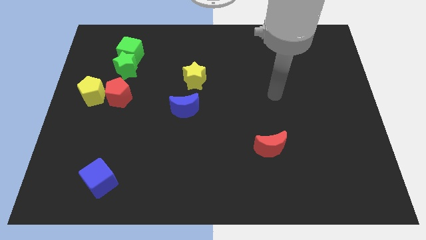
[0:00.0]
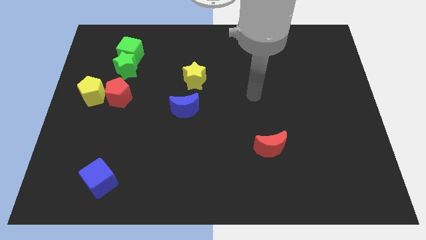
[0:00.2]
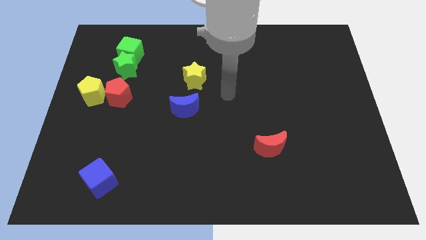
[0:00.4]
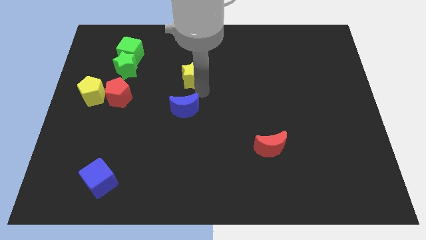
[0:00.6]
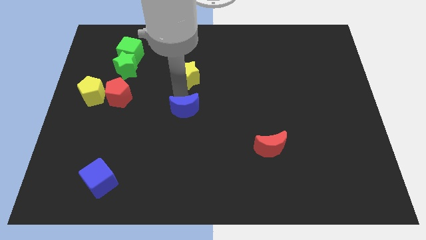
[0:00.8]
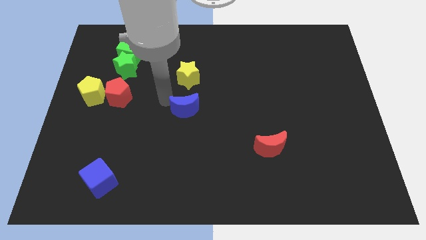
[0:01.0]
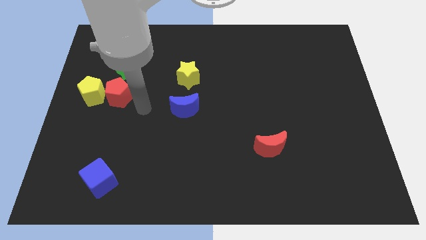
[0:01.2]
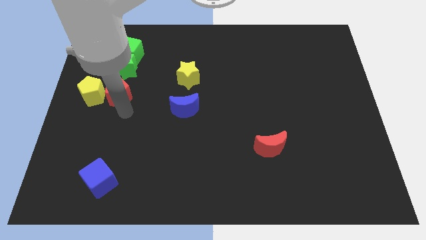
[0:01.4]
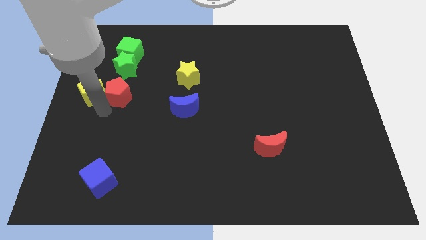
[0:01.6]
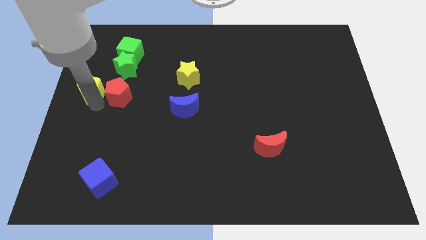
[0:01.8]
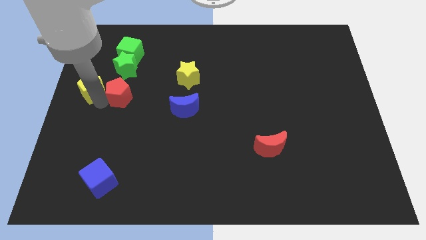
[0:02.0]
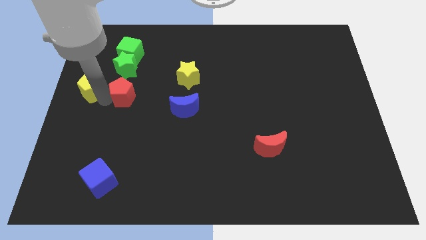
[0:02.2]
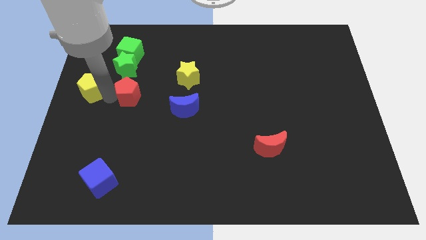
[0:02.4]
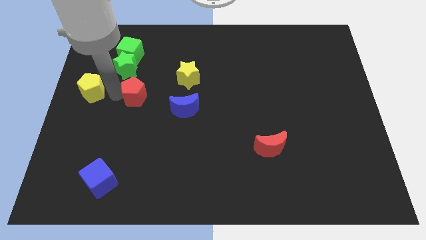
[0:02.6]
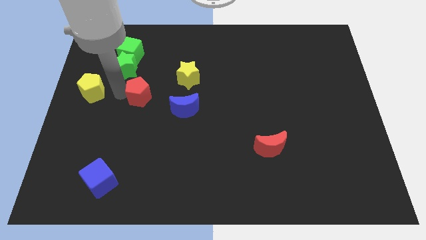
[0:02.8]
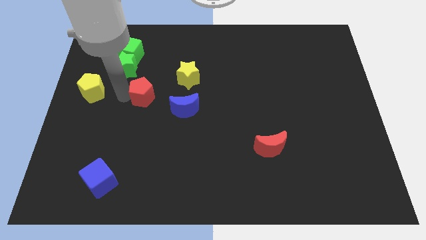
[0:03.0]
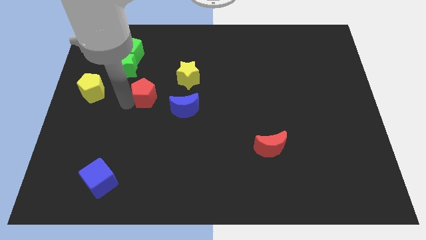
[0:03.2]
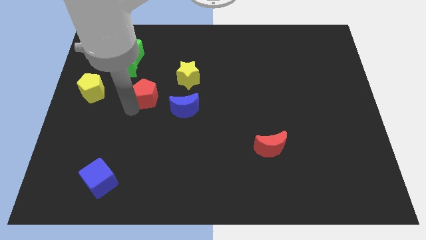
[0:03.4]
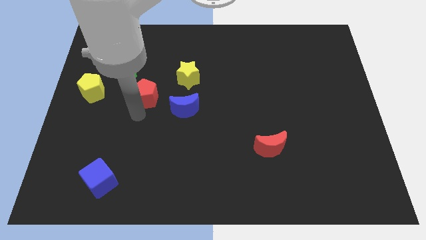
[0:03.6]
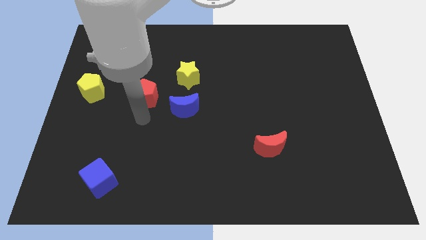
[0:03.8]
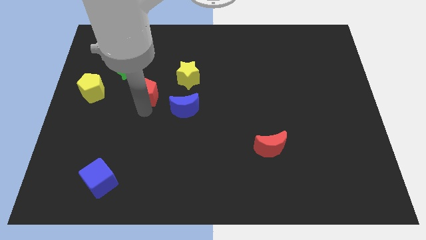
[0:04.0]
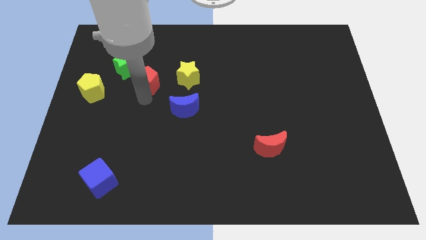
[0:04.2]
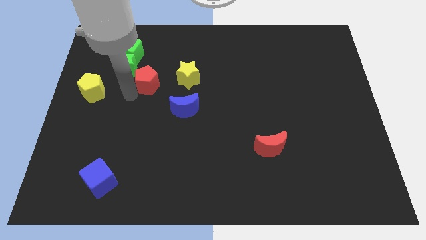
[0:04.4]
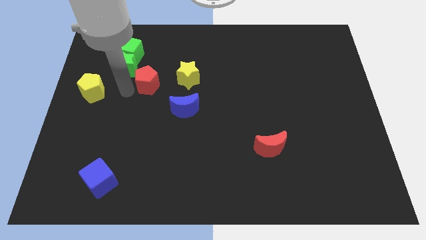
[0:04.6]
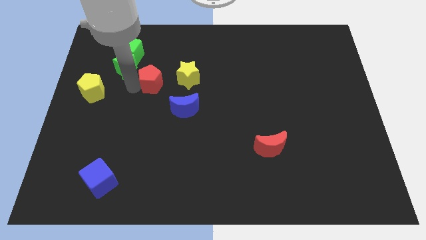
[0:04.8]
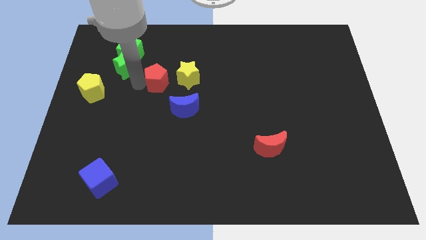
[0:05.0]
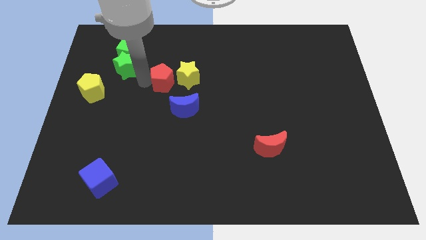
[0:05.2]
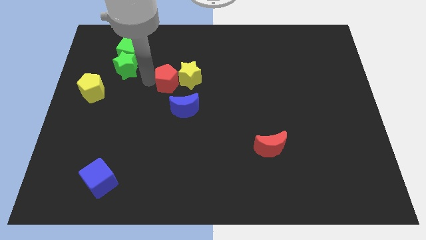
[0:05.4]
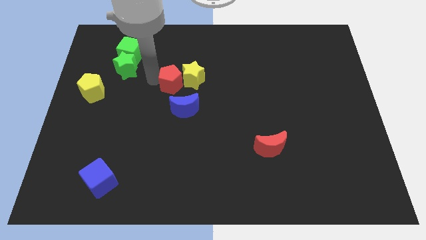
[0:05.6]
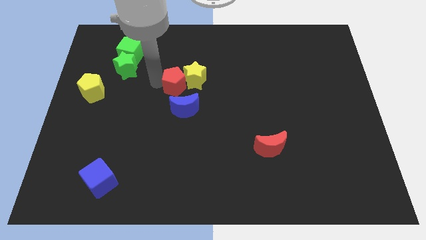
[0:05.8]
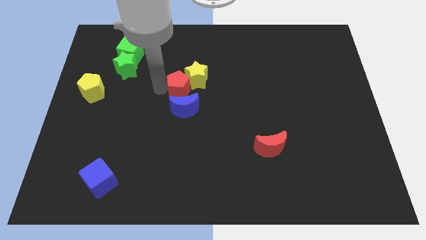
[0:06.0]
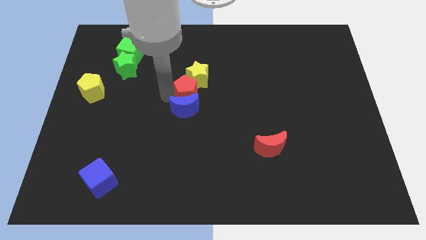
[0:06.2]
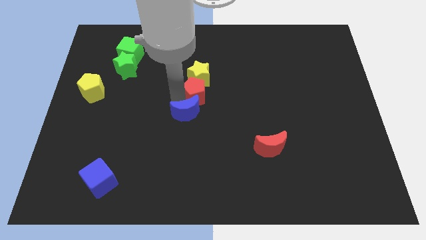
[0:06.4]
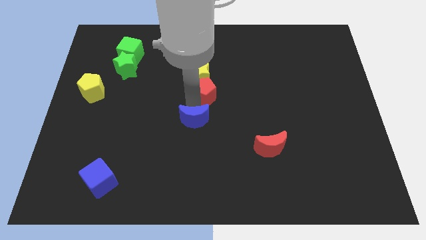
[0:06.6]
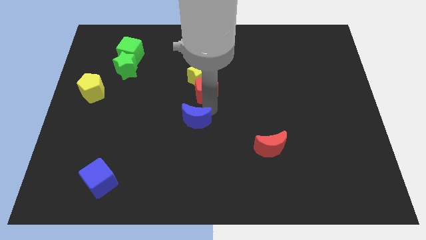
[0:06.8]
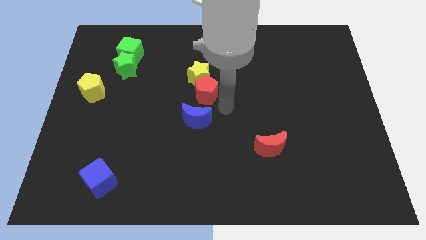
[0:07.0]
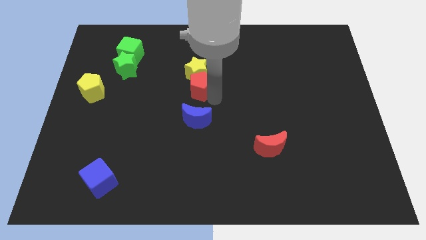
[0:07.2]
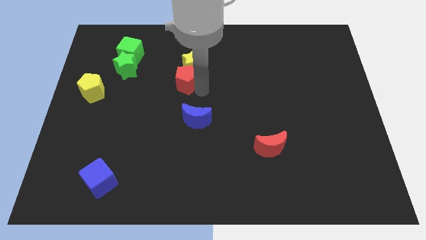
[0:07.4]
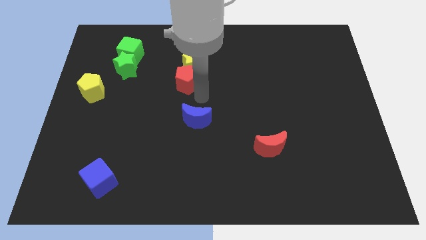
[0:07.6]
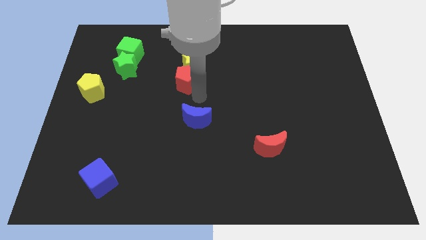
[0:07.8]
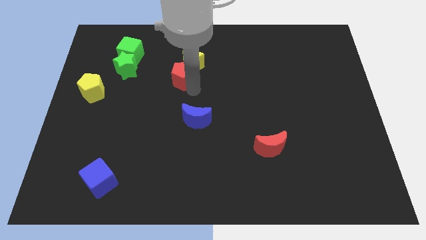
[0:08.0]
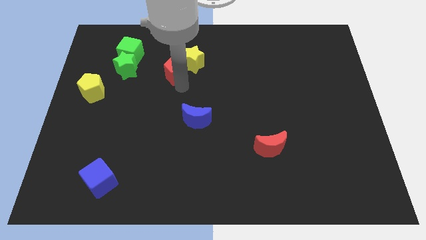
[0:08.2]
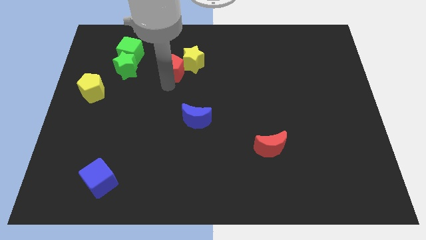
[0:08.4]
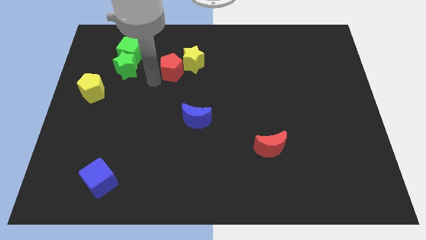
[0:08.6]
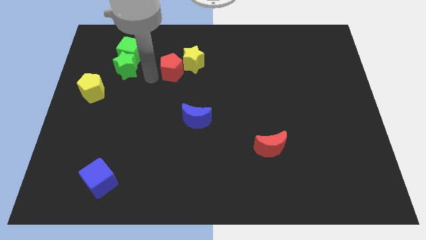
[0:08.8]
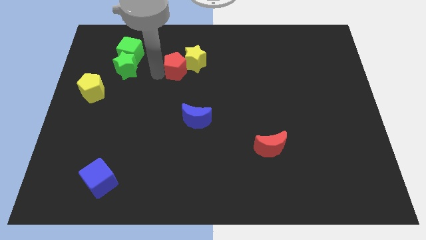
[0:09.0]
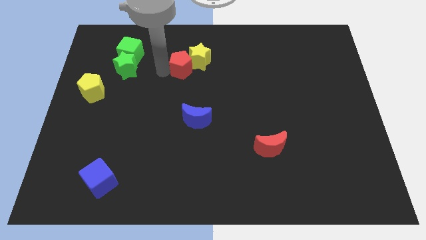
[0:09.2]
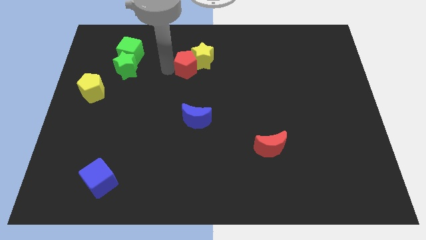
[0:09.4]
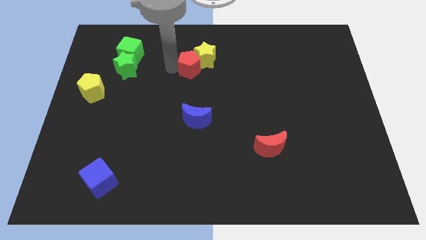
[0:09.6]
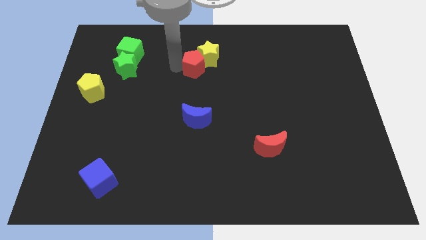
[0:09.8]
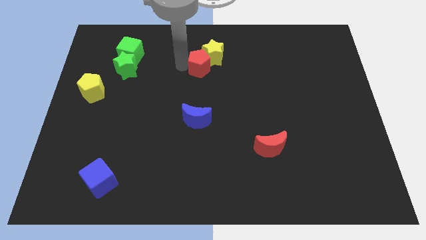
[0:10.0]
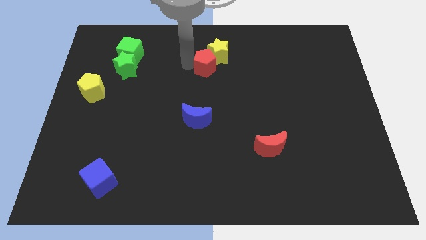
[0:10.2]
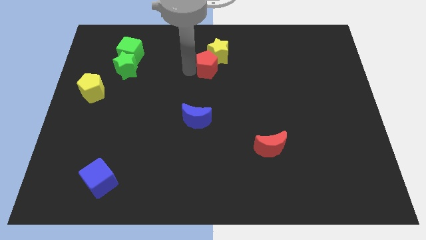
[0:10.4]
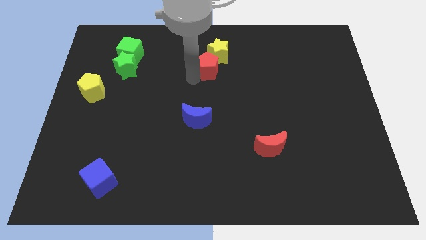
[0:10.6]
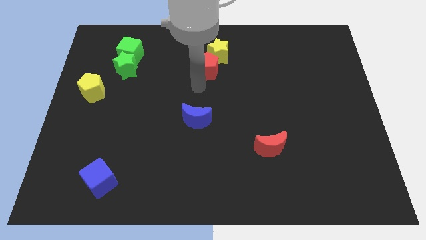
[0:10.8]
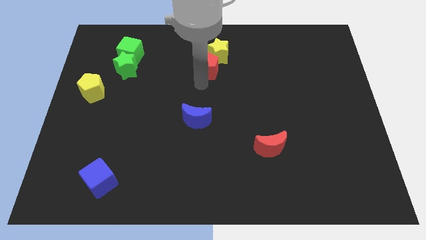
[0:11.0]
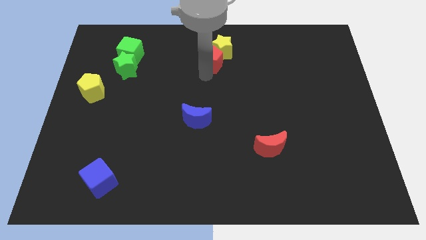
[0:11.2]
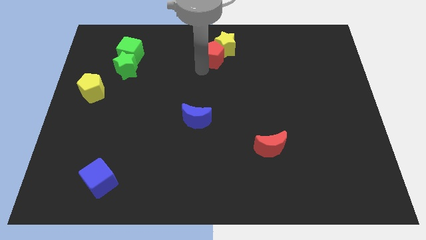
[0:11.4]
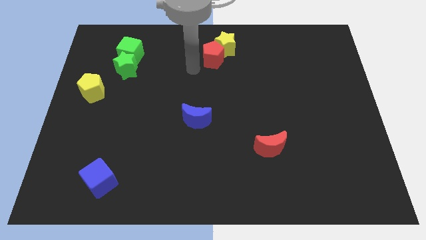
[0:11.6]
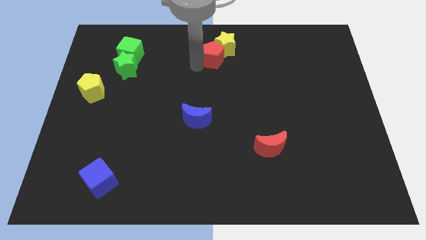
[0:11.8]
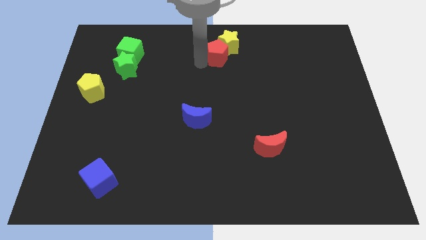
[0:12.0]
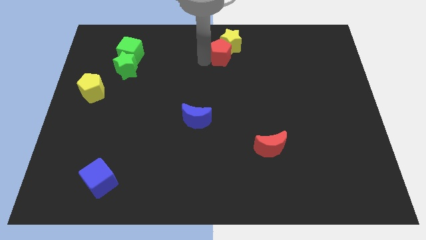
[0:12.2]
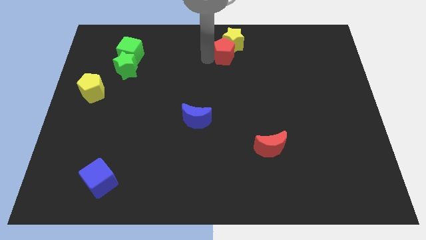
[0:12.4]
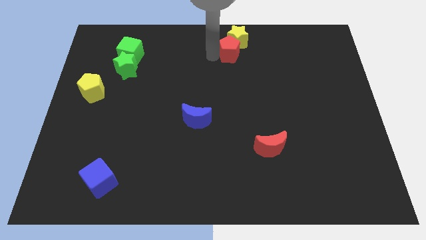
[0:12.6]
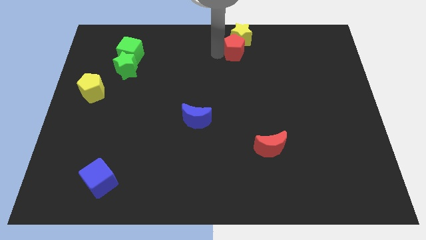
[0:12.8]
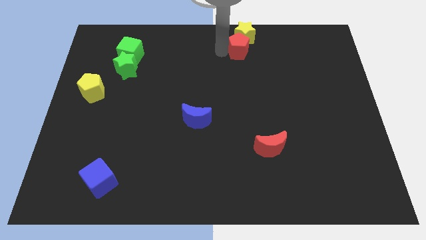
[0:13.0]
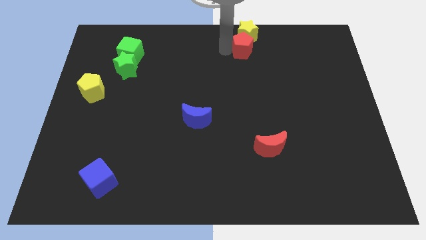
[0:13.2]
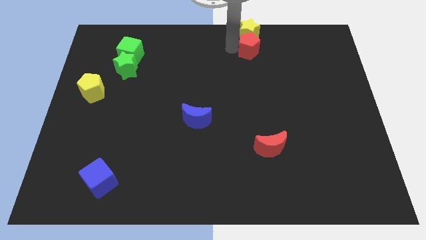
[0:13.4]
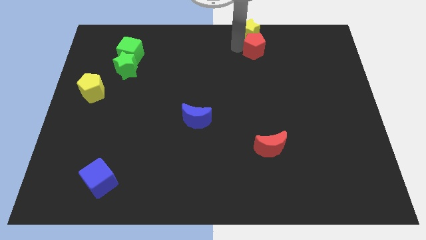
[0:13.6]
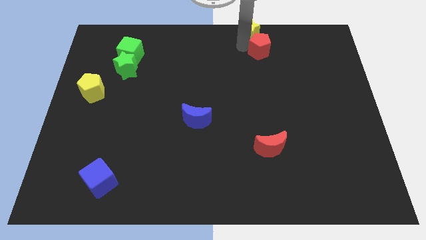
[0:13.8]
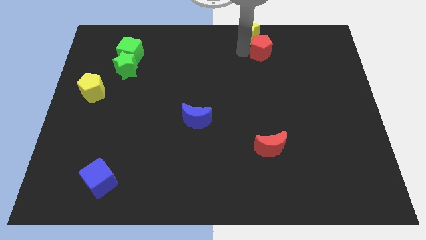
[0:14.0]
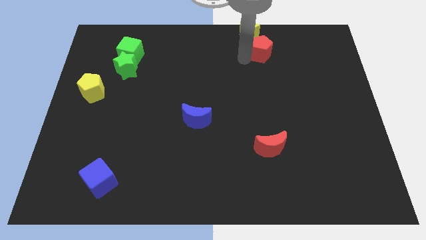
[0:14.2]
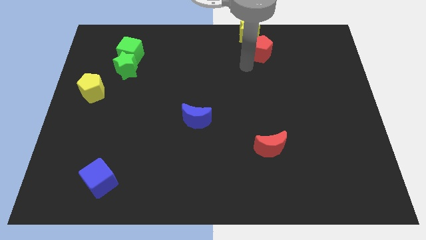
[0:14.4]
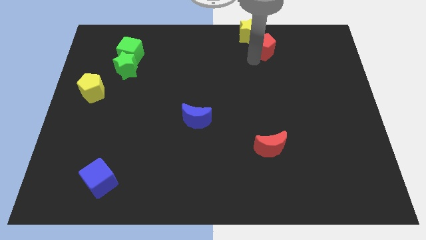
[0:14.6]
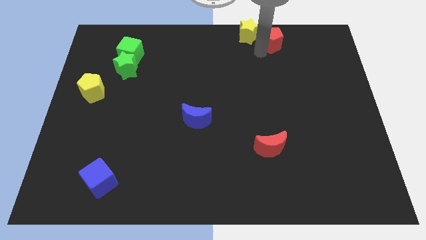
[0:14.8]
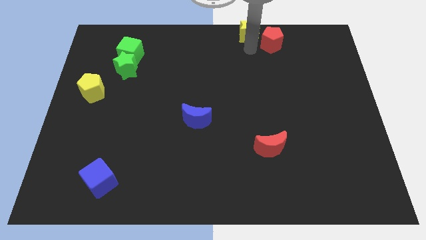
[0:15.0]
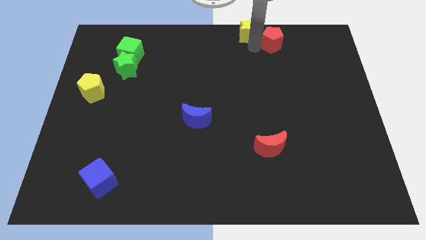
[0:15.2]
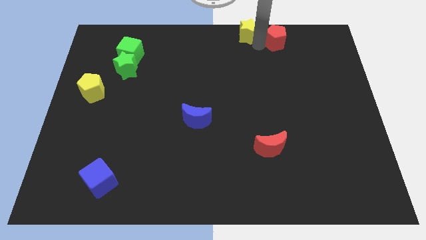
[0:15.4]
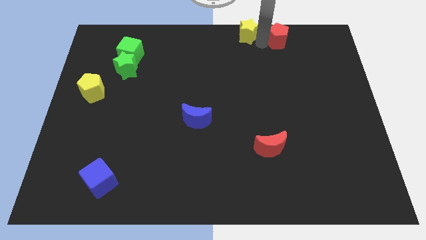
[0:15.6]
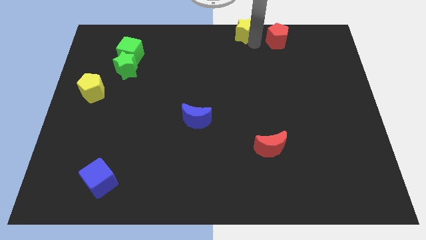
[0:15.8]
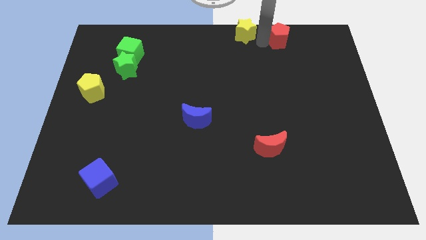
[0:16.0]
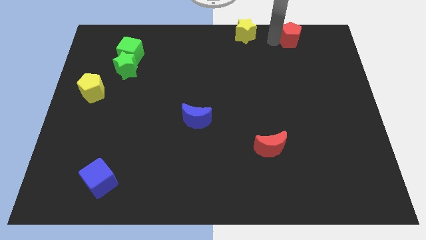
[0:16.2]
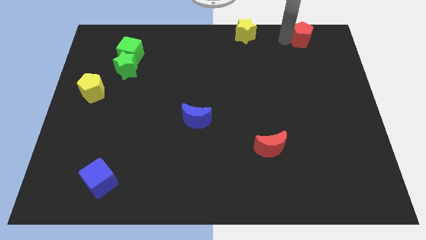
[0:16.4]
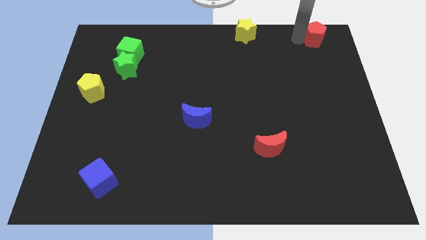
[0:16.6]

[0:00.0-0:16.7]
move the red pentagon to the upper right corner
